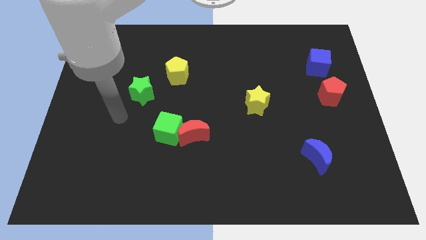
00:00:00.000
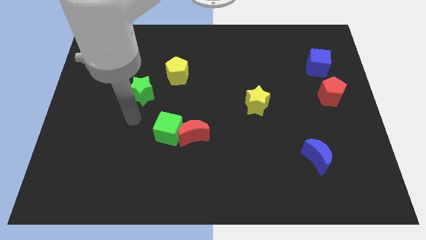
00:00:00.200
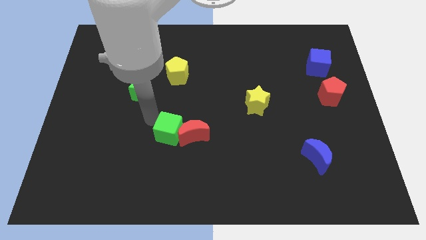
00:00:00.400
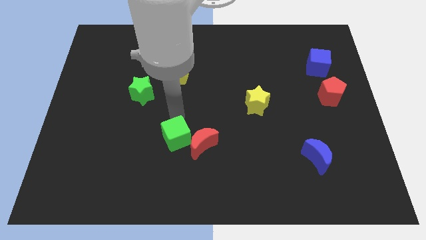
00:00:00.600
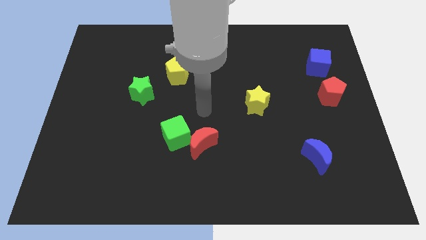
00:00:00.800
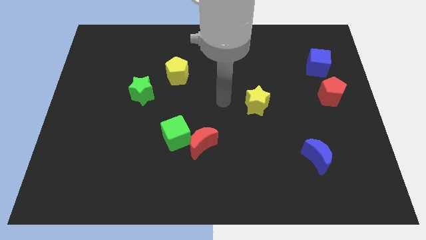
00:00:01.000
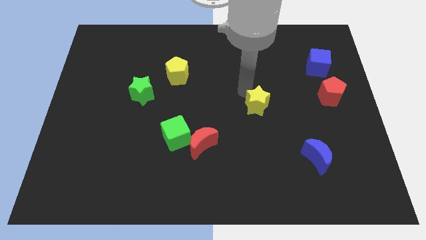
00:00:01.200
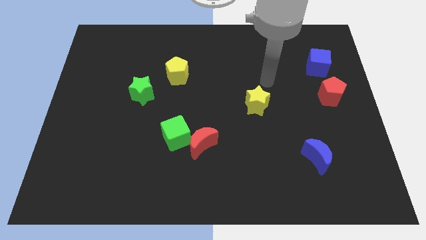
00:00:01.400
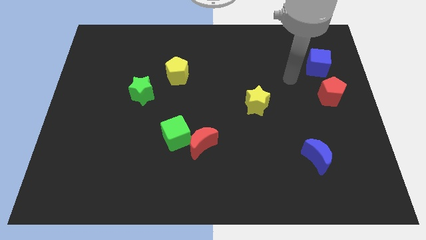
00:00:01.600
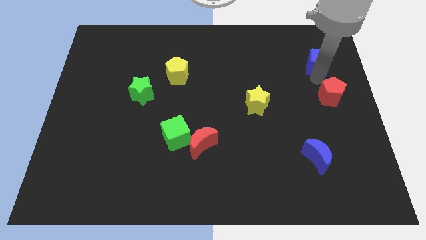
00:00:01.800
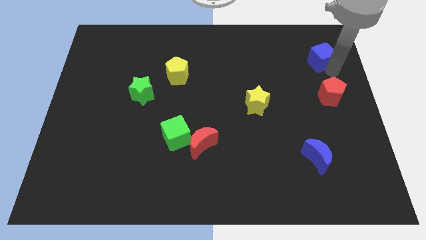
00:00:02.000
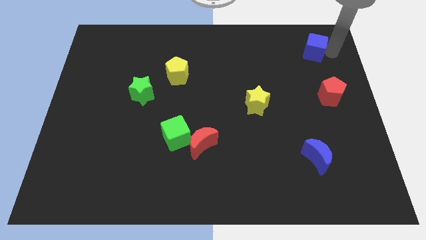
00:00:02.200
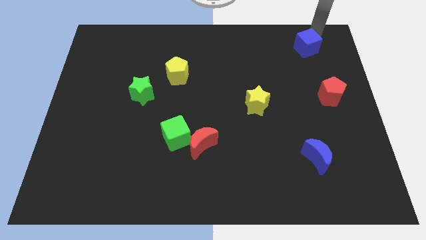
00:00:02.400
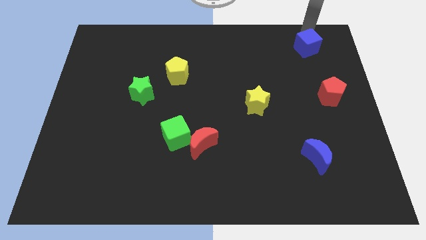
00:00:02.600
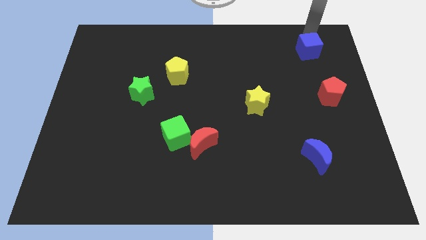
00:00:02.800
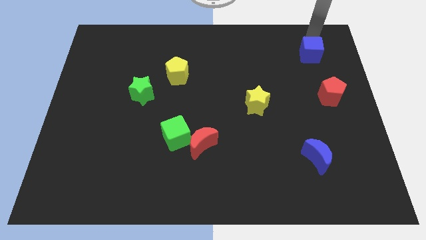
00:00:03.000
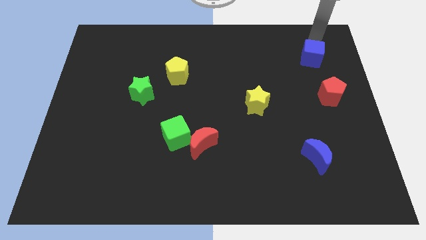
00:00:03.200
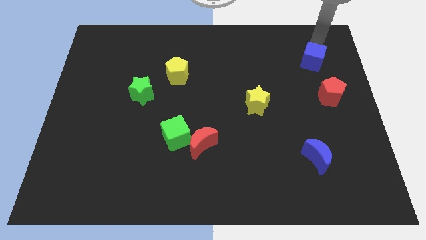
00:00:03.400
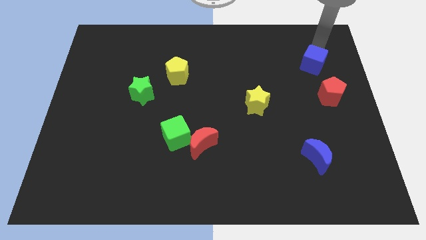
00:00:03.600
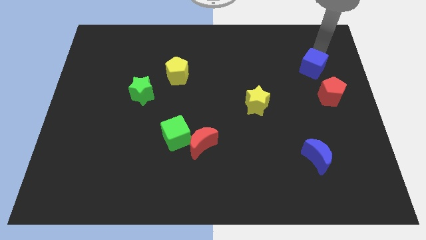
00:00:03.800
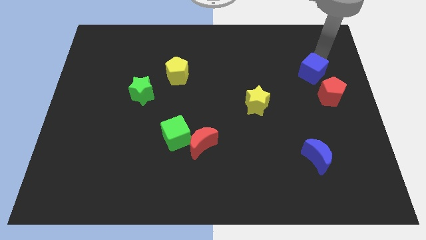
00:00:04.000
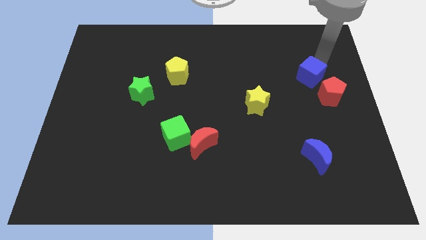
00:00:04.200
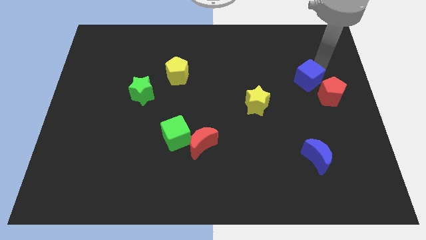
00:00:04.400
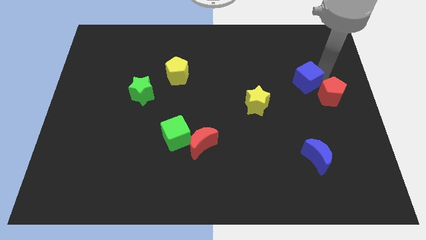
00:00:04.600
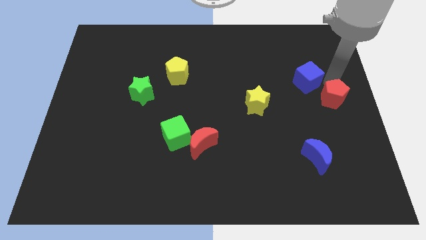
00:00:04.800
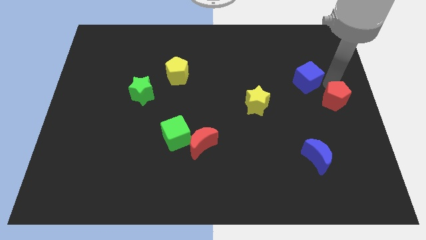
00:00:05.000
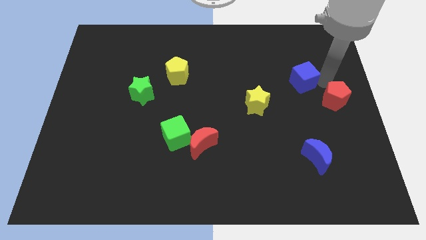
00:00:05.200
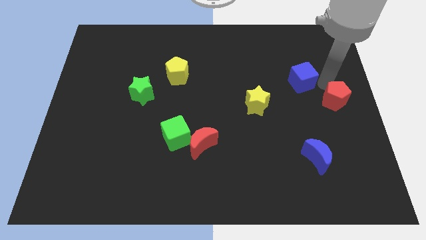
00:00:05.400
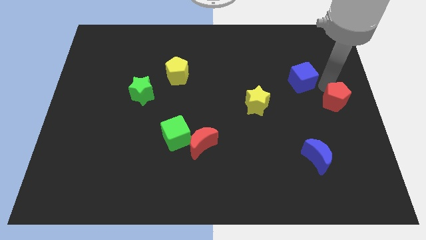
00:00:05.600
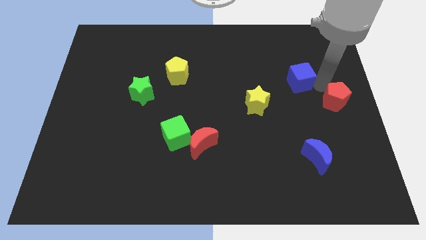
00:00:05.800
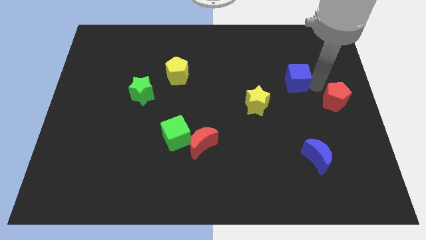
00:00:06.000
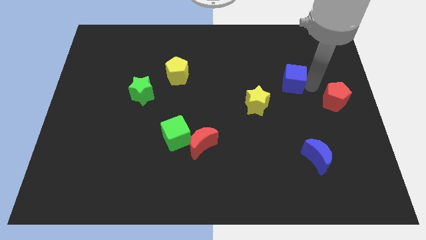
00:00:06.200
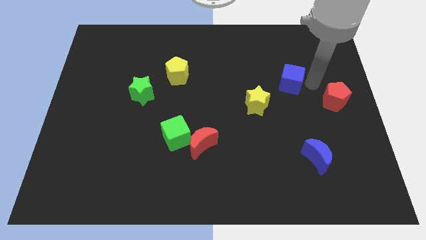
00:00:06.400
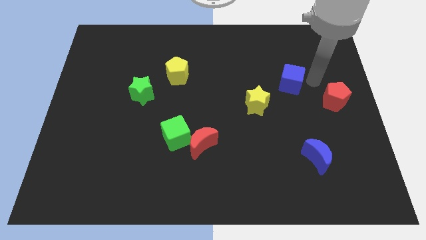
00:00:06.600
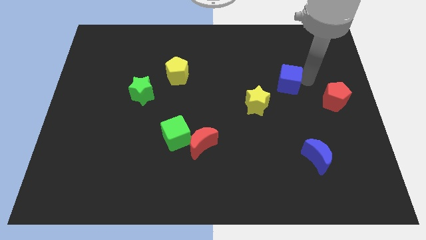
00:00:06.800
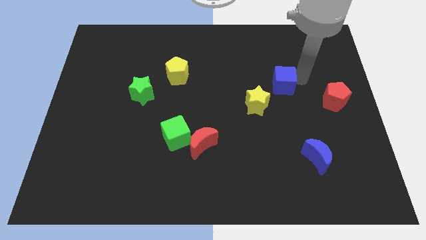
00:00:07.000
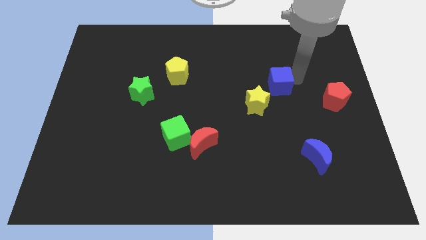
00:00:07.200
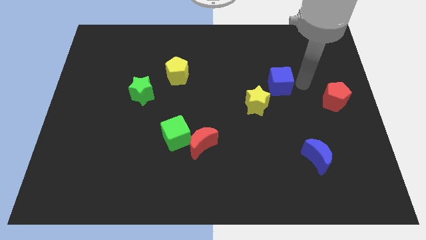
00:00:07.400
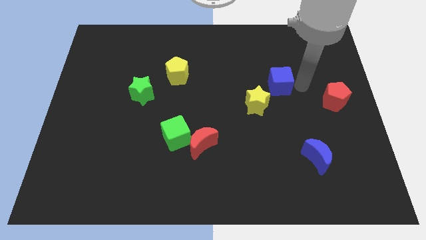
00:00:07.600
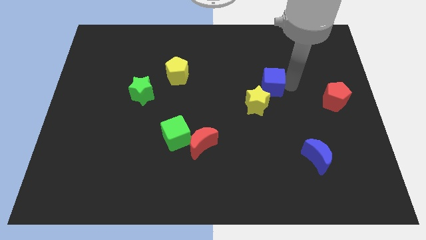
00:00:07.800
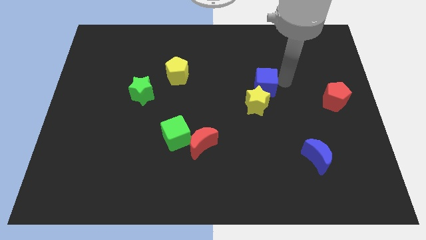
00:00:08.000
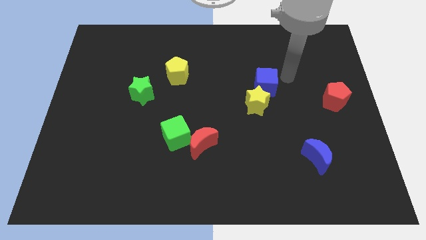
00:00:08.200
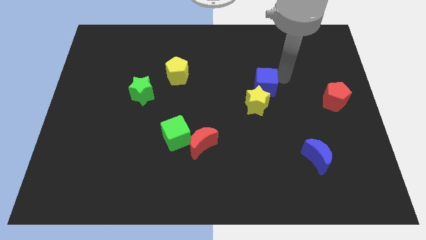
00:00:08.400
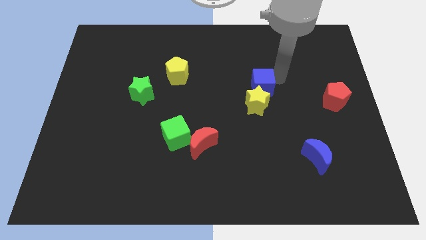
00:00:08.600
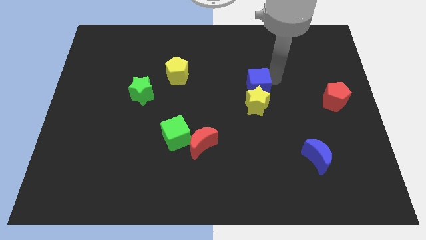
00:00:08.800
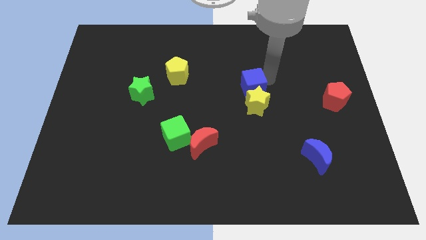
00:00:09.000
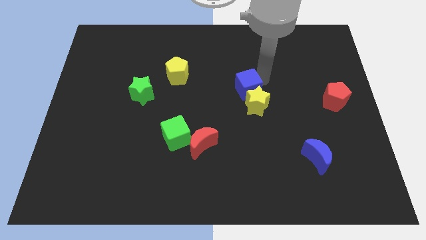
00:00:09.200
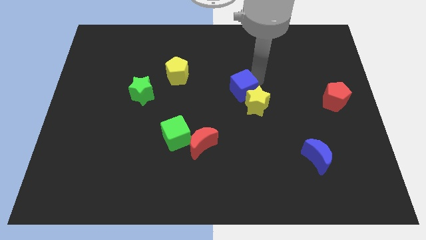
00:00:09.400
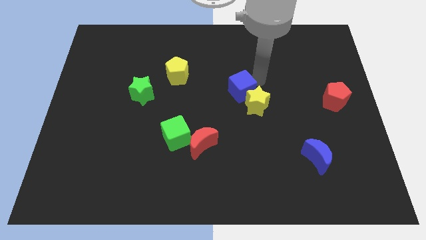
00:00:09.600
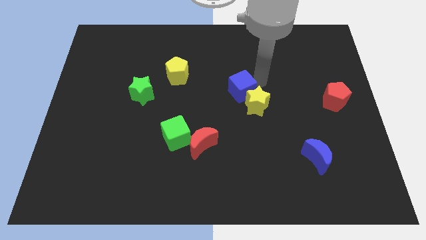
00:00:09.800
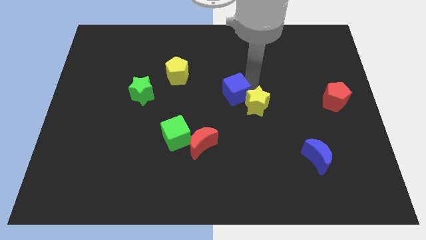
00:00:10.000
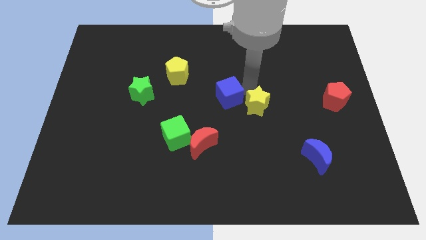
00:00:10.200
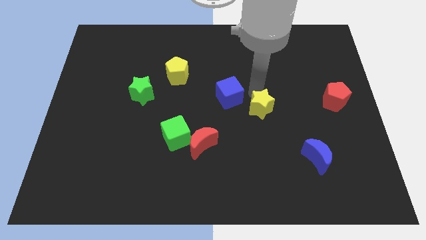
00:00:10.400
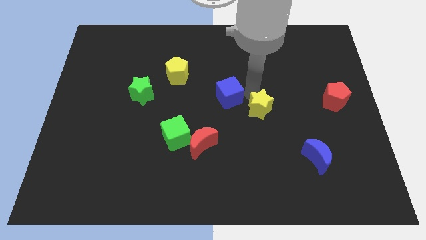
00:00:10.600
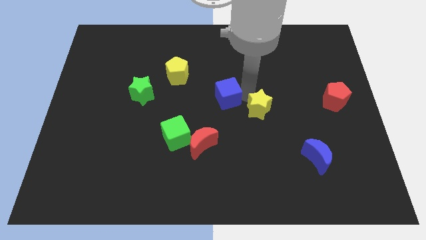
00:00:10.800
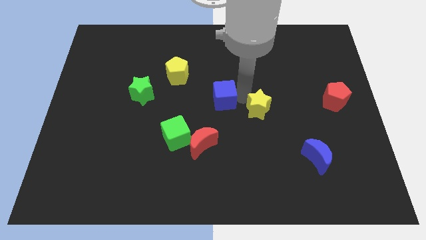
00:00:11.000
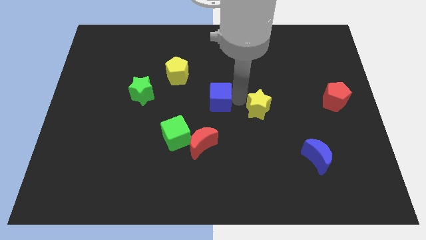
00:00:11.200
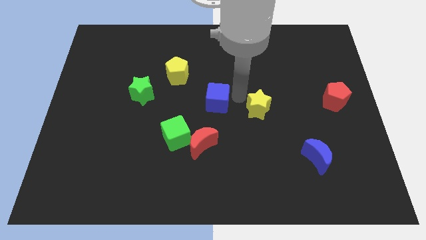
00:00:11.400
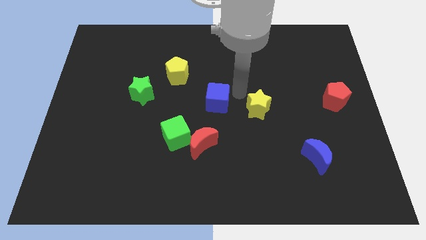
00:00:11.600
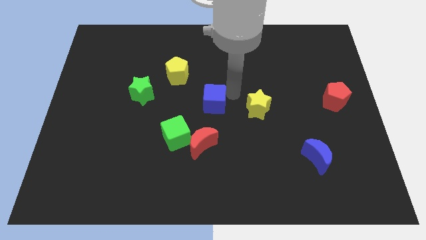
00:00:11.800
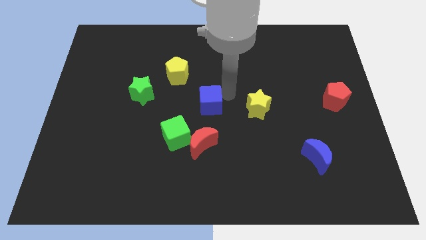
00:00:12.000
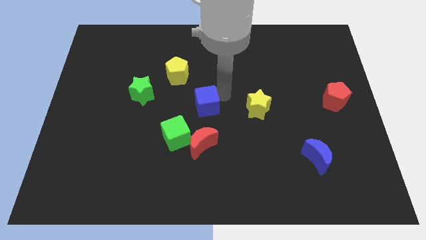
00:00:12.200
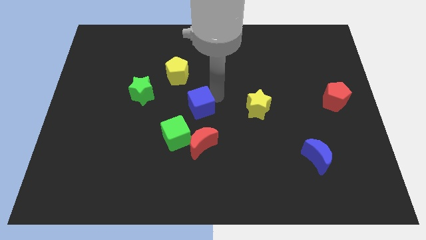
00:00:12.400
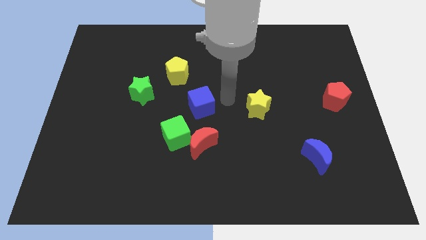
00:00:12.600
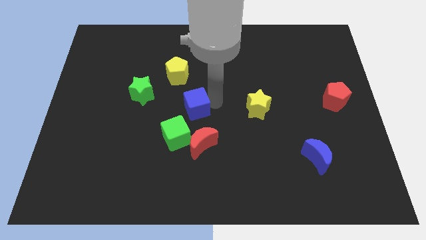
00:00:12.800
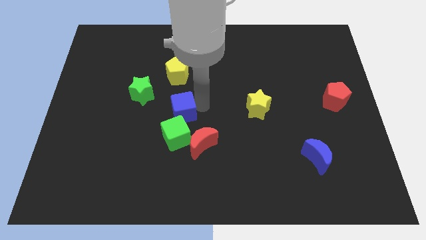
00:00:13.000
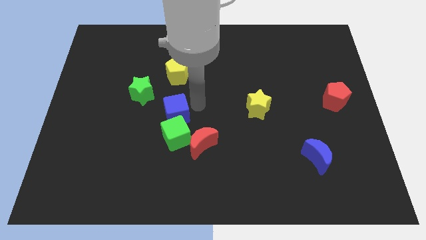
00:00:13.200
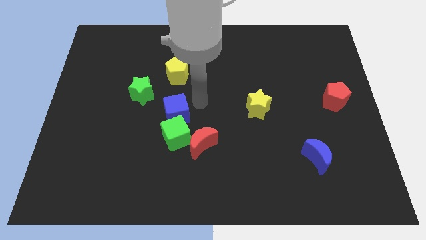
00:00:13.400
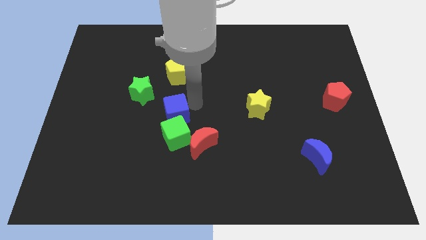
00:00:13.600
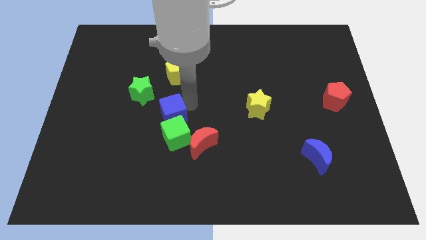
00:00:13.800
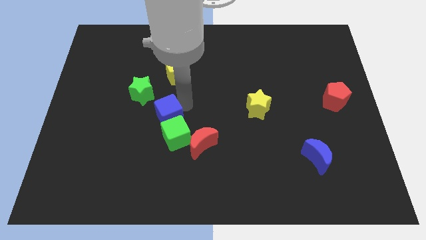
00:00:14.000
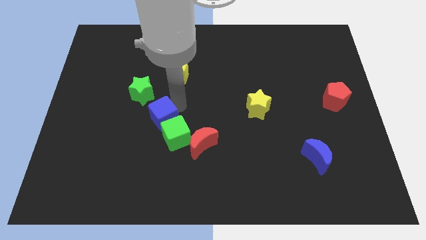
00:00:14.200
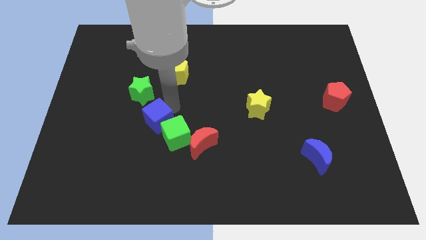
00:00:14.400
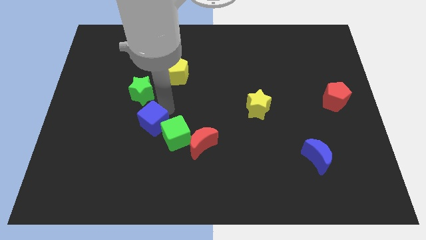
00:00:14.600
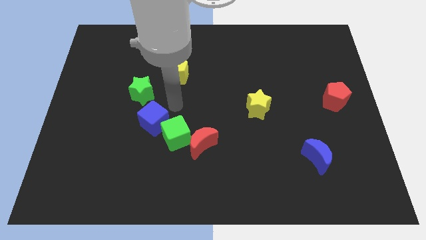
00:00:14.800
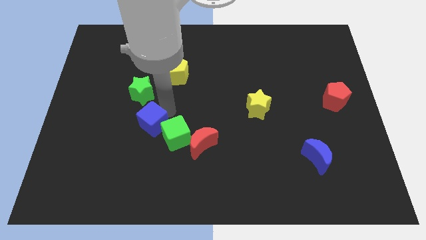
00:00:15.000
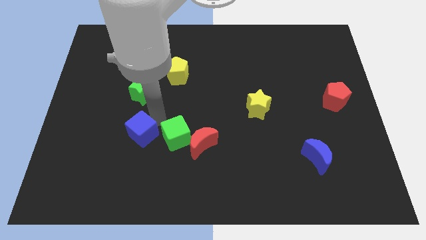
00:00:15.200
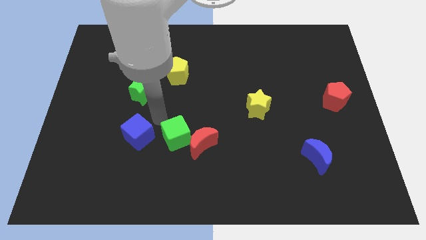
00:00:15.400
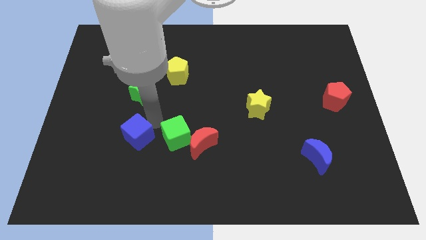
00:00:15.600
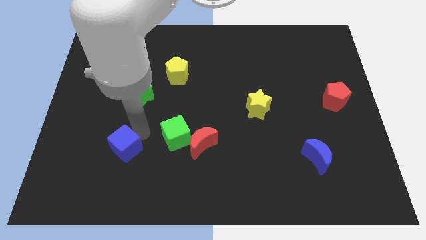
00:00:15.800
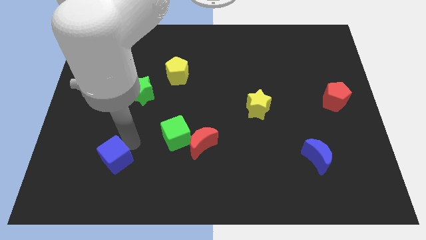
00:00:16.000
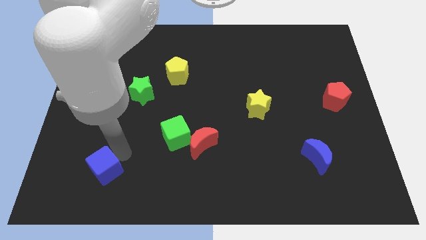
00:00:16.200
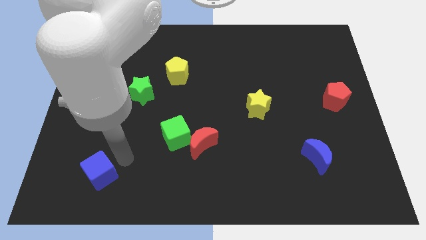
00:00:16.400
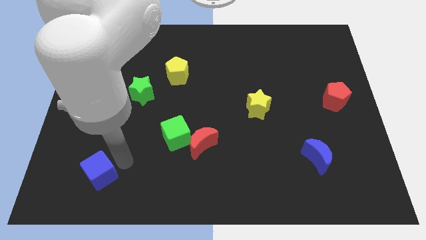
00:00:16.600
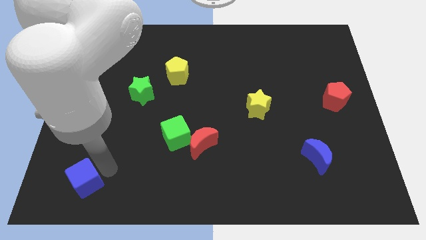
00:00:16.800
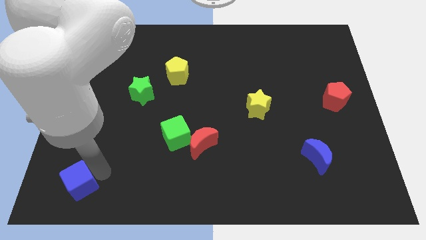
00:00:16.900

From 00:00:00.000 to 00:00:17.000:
push the blue cube to the bottom left
